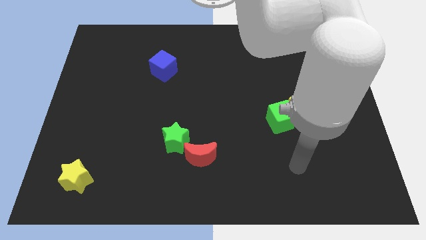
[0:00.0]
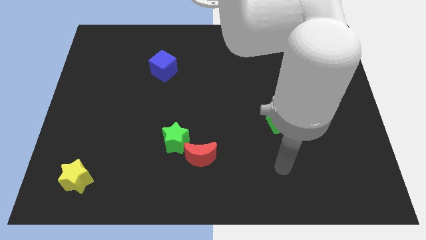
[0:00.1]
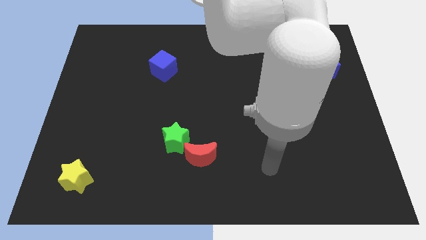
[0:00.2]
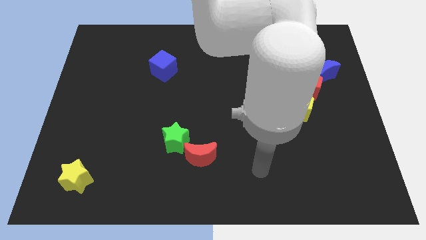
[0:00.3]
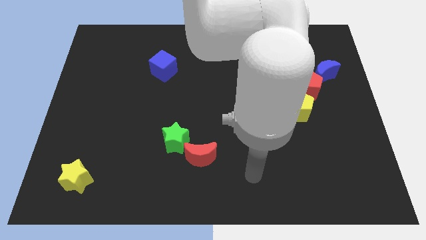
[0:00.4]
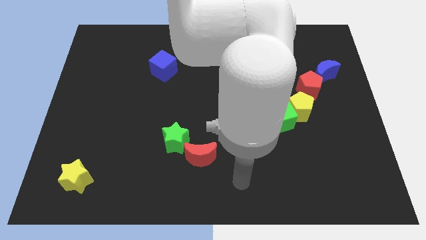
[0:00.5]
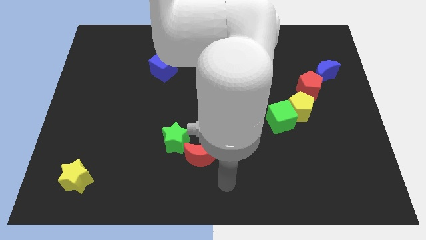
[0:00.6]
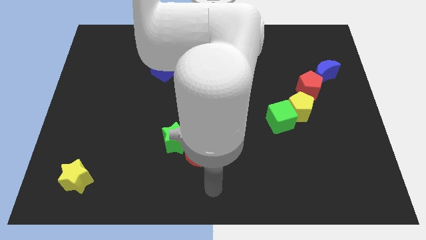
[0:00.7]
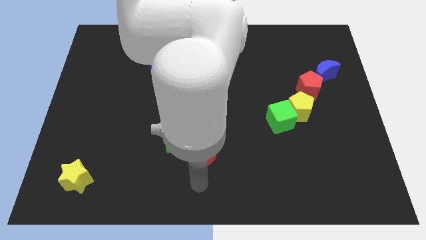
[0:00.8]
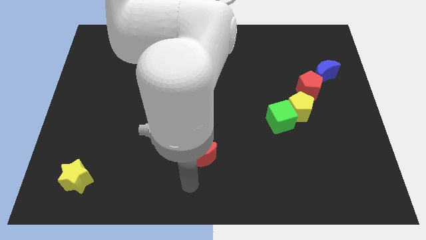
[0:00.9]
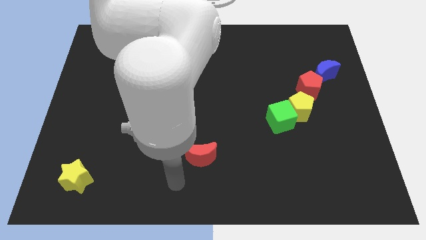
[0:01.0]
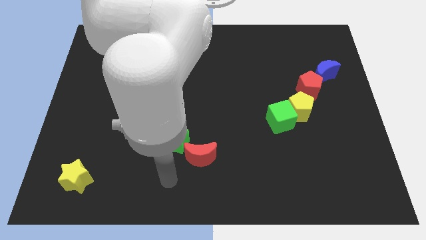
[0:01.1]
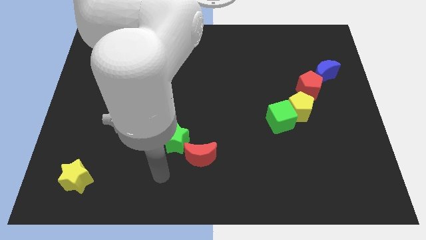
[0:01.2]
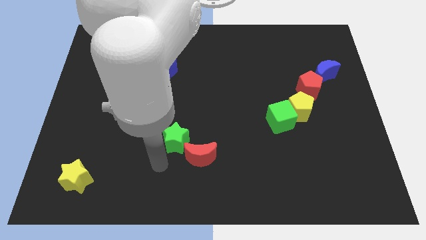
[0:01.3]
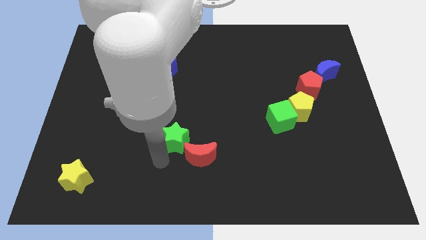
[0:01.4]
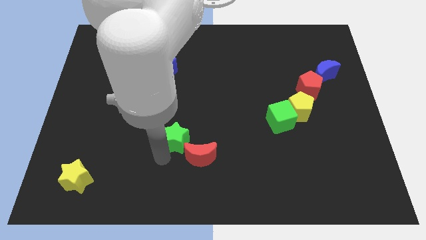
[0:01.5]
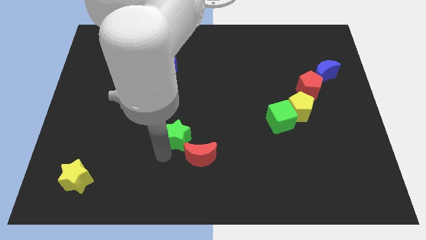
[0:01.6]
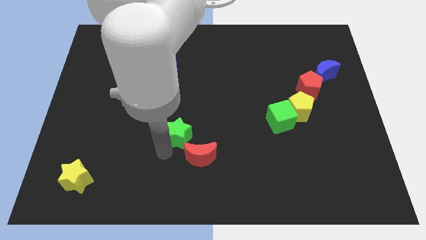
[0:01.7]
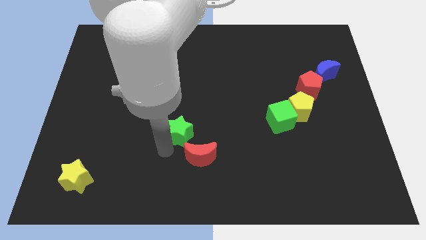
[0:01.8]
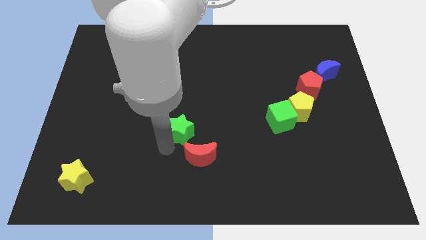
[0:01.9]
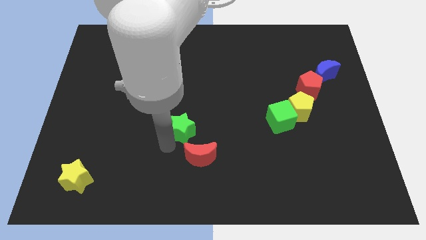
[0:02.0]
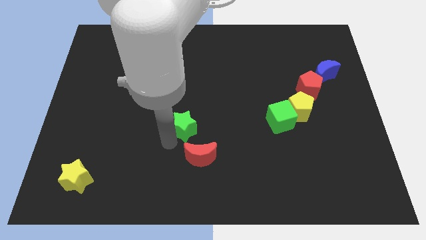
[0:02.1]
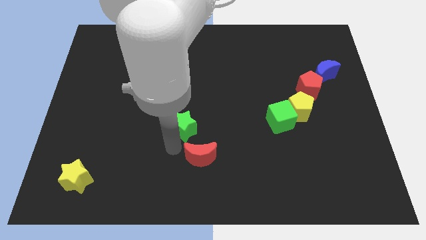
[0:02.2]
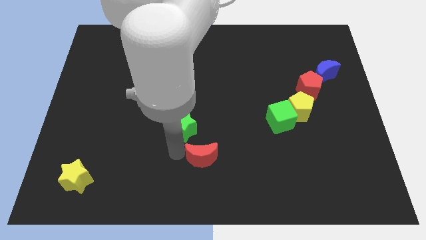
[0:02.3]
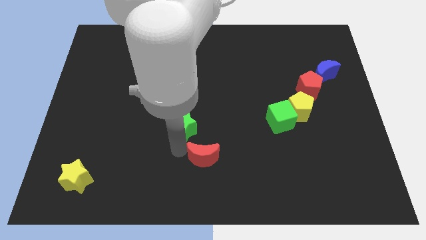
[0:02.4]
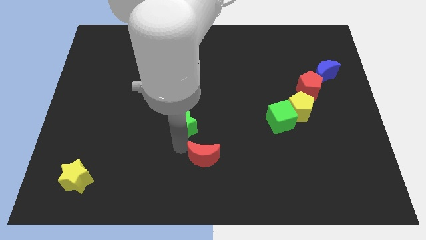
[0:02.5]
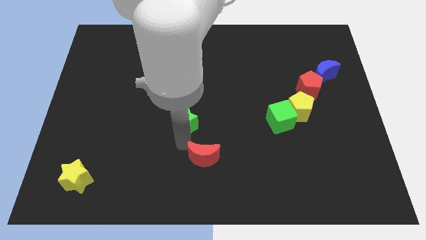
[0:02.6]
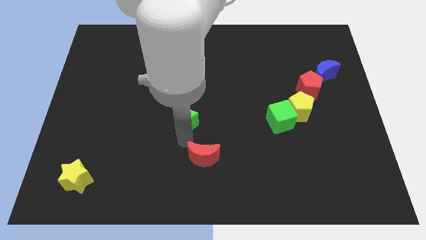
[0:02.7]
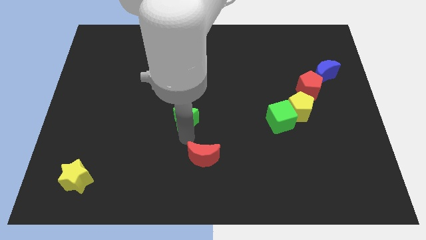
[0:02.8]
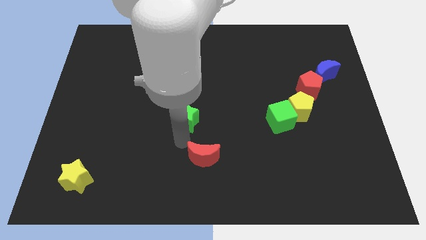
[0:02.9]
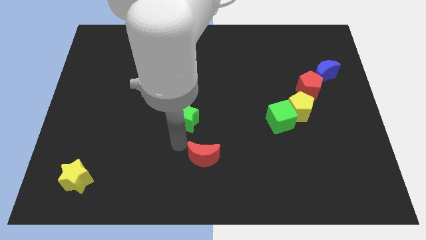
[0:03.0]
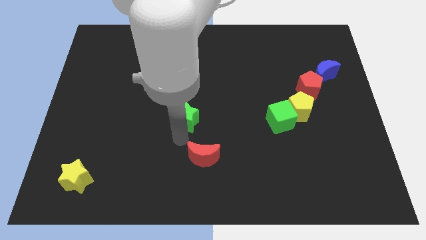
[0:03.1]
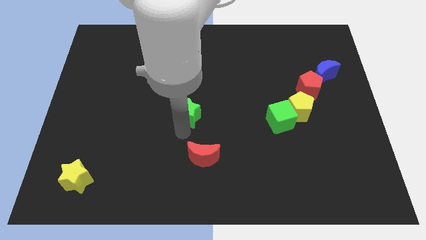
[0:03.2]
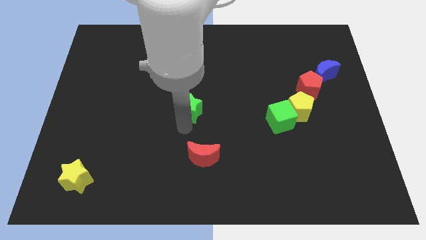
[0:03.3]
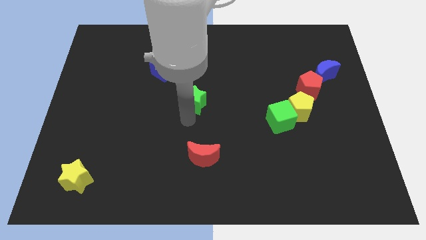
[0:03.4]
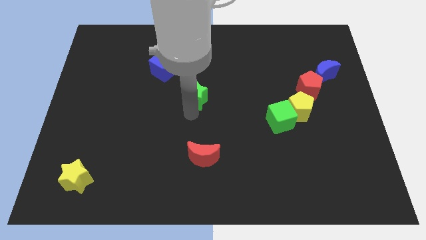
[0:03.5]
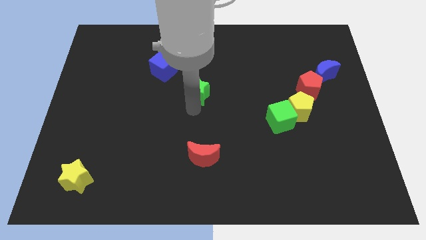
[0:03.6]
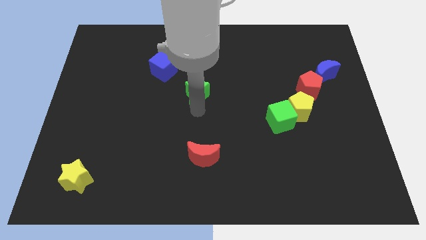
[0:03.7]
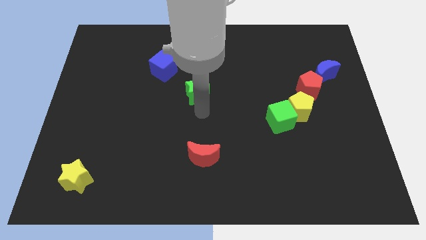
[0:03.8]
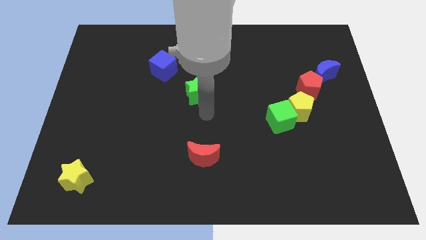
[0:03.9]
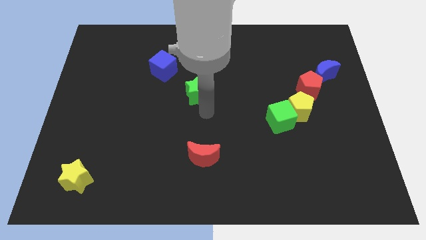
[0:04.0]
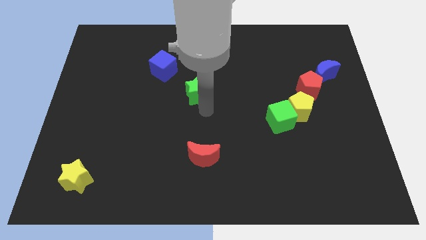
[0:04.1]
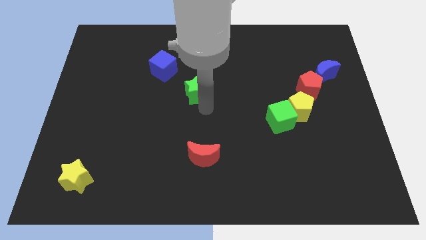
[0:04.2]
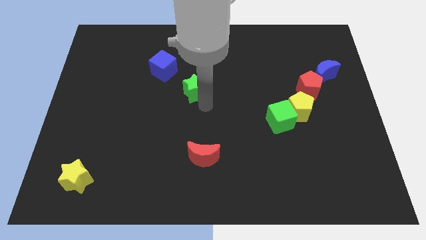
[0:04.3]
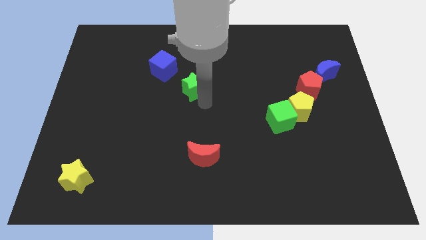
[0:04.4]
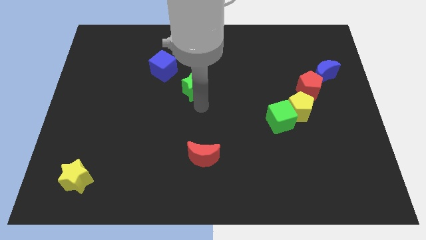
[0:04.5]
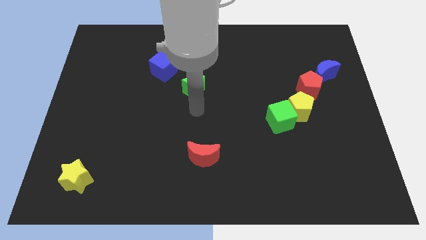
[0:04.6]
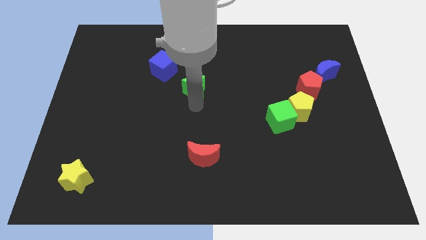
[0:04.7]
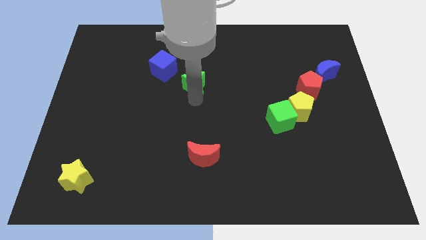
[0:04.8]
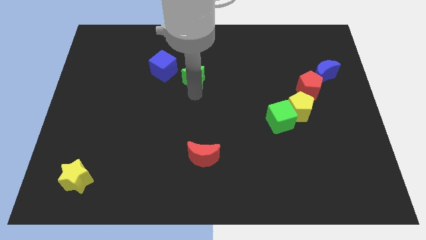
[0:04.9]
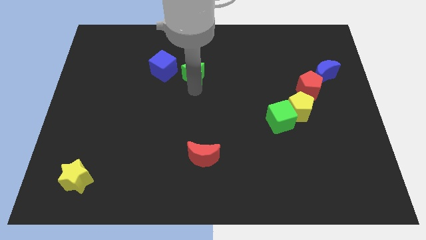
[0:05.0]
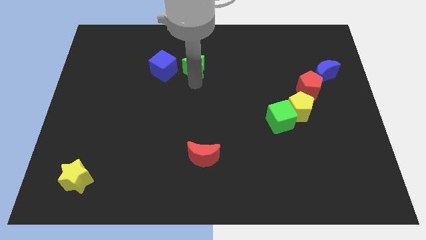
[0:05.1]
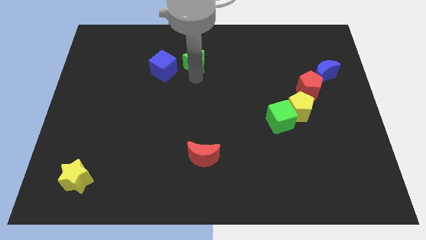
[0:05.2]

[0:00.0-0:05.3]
push the green star diagonally up and to the right of the blue cube

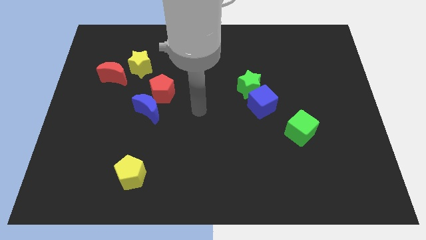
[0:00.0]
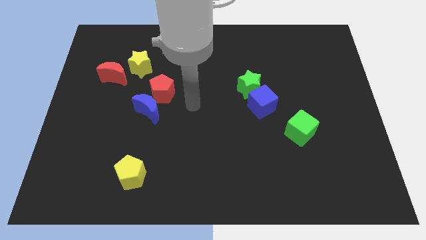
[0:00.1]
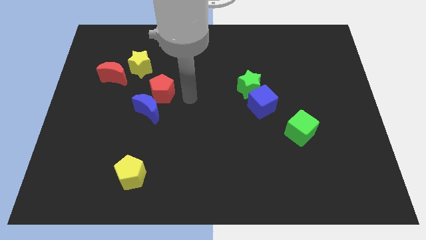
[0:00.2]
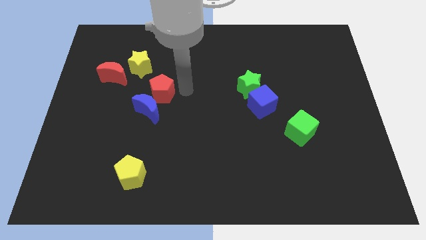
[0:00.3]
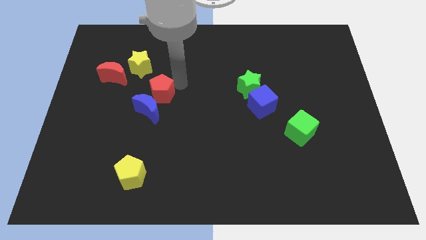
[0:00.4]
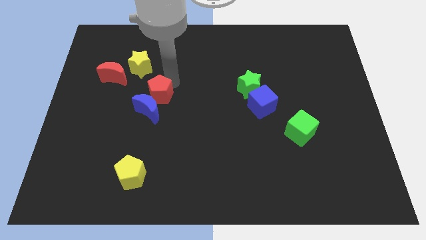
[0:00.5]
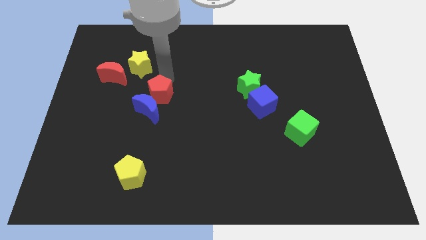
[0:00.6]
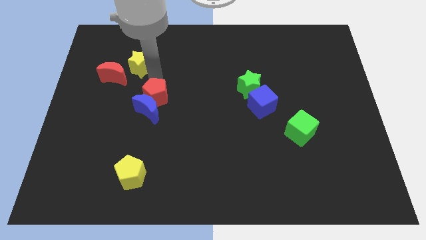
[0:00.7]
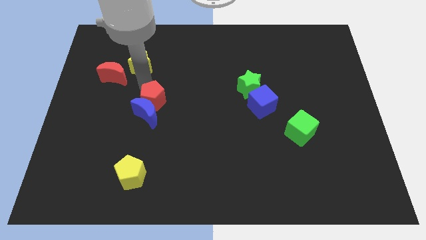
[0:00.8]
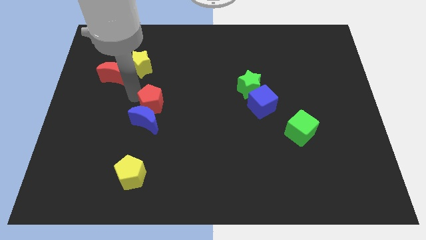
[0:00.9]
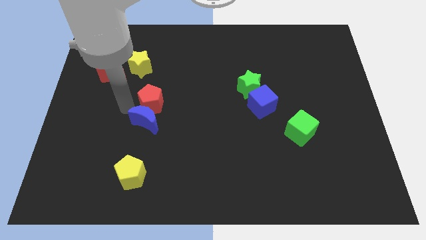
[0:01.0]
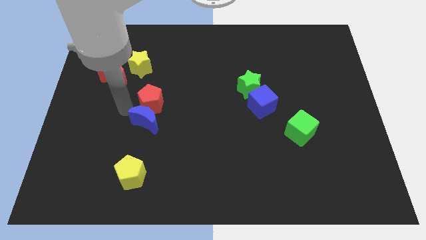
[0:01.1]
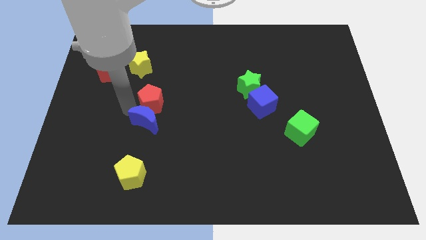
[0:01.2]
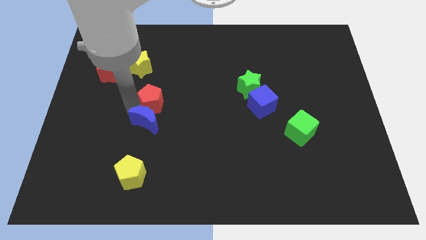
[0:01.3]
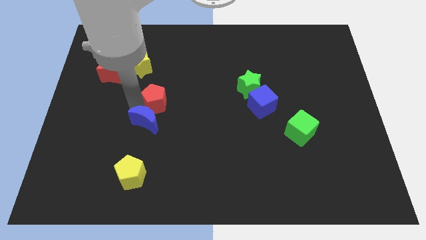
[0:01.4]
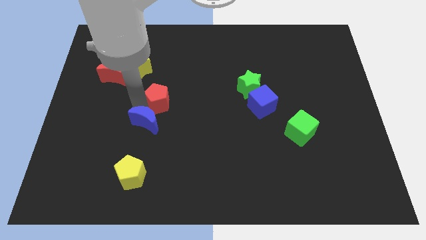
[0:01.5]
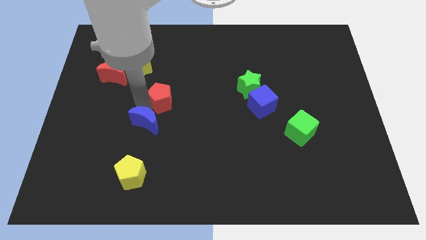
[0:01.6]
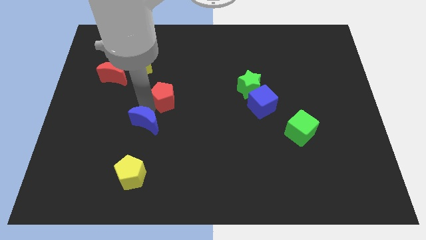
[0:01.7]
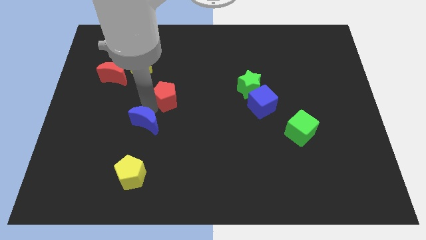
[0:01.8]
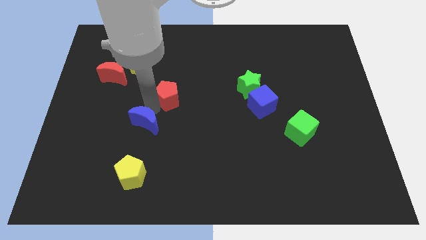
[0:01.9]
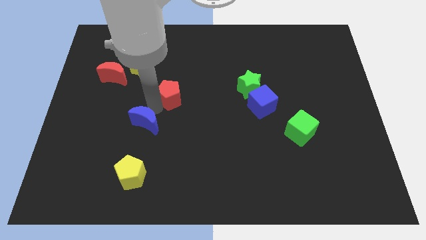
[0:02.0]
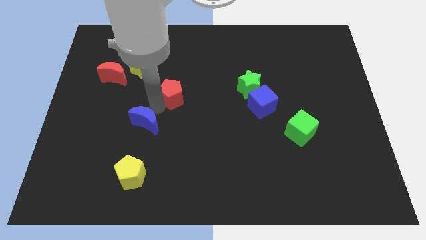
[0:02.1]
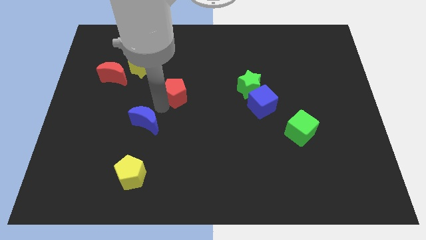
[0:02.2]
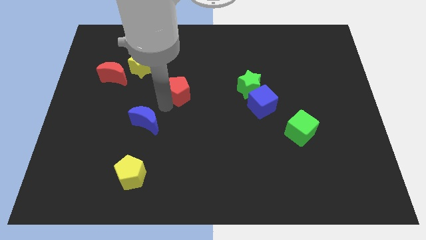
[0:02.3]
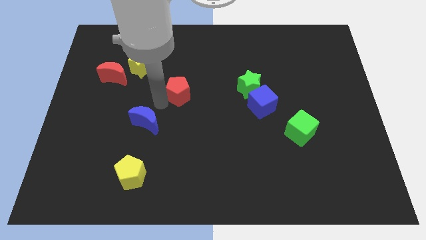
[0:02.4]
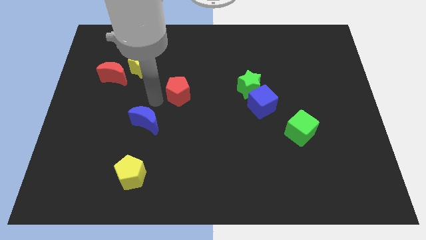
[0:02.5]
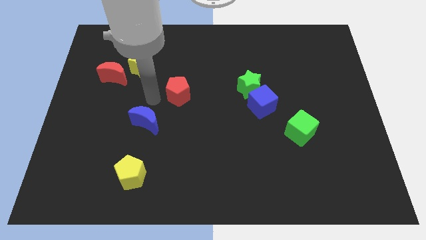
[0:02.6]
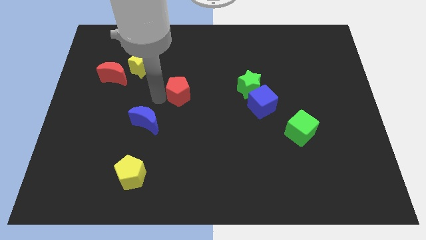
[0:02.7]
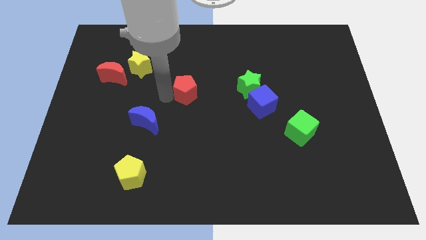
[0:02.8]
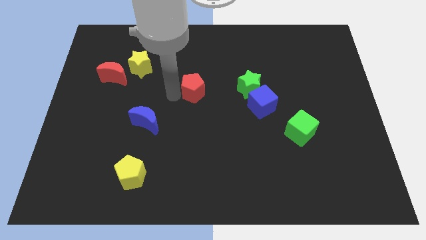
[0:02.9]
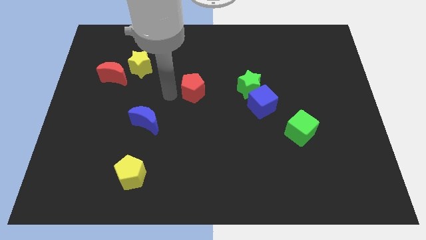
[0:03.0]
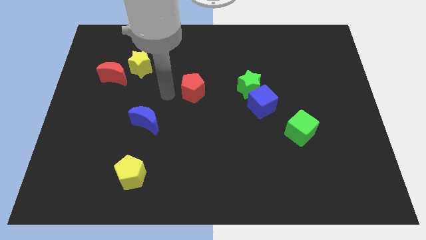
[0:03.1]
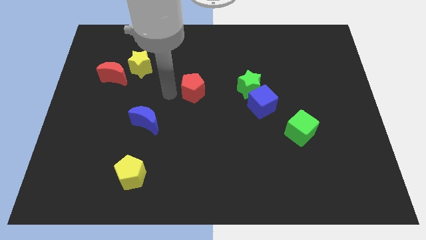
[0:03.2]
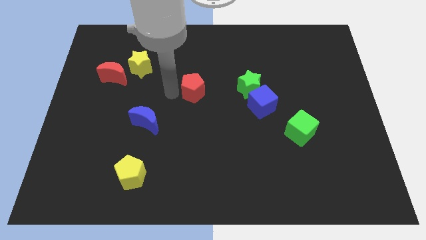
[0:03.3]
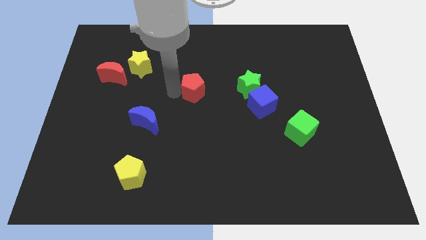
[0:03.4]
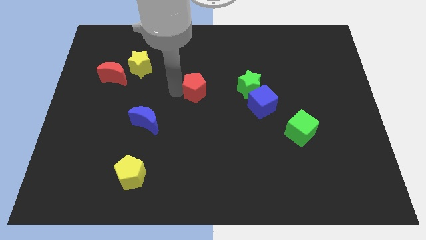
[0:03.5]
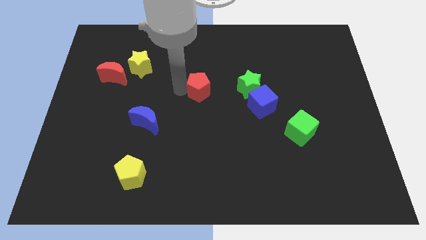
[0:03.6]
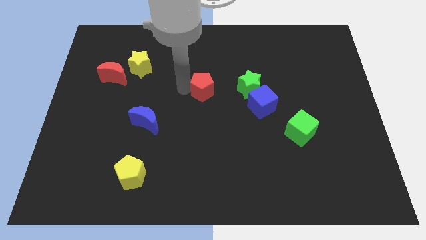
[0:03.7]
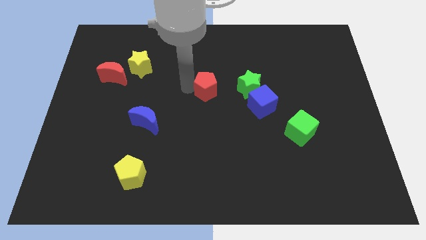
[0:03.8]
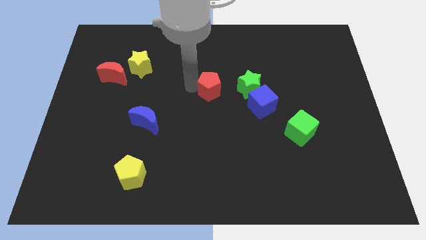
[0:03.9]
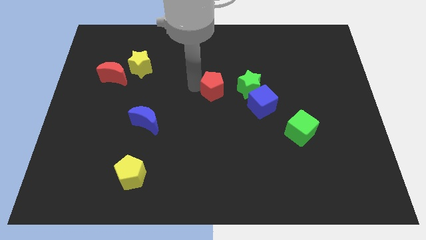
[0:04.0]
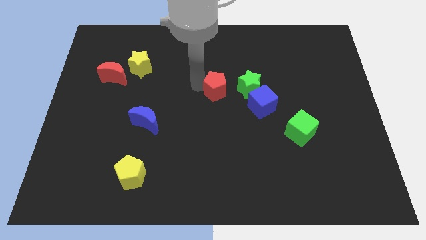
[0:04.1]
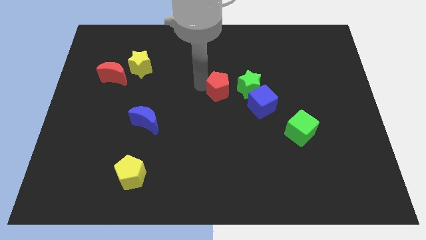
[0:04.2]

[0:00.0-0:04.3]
push the red pentagon diagonally up and to the left of the blue cube
